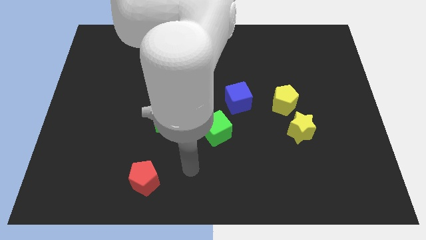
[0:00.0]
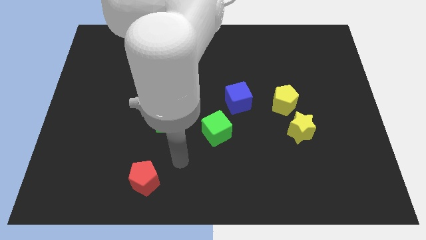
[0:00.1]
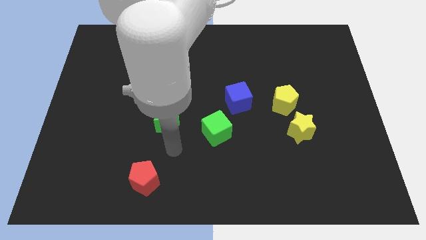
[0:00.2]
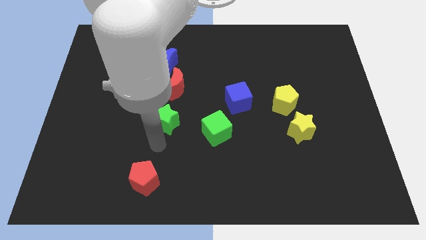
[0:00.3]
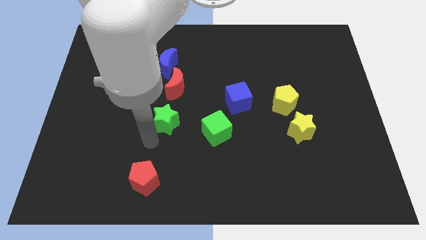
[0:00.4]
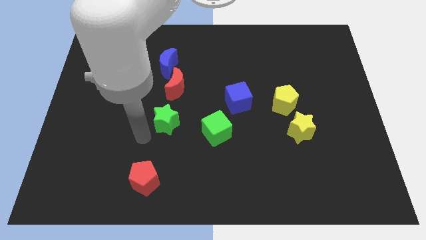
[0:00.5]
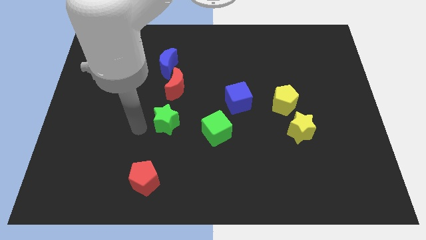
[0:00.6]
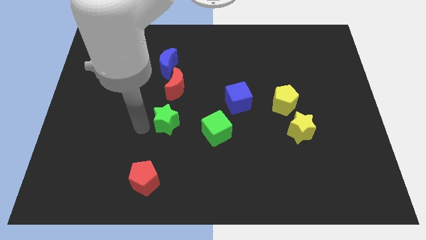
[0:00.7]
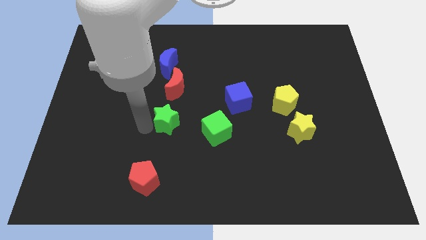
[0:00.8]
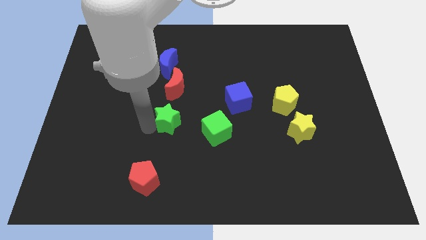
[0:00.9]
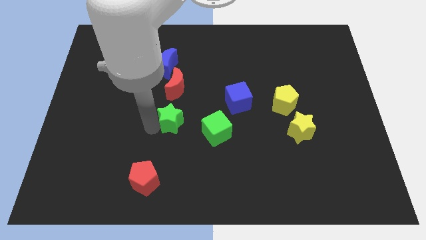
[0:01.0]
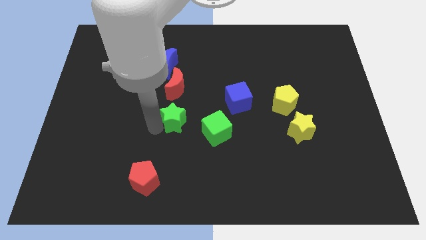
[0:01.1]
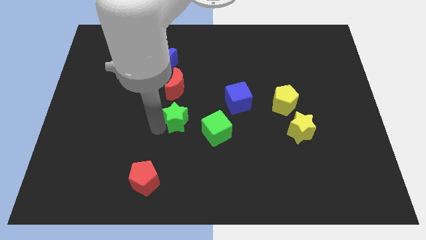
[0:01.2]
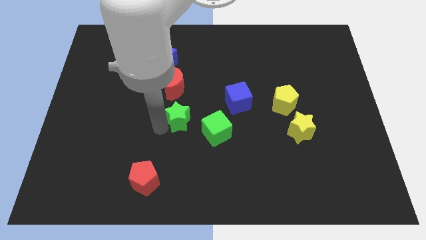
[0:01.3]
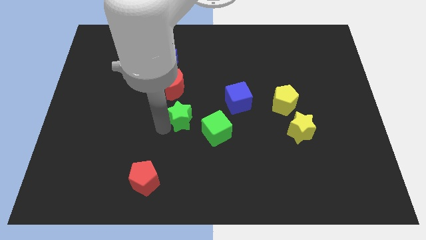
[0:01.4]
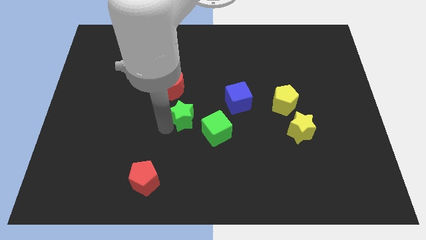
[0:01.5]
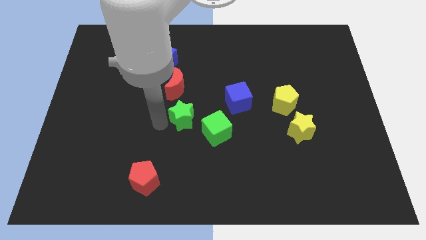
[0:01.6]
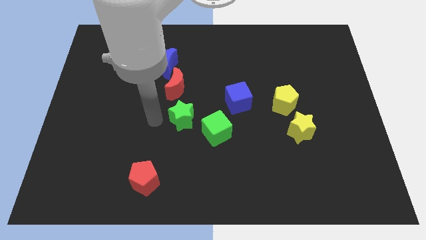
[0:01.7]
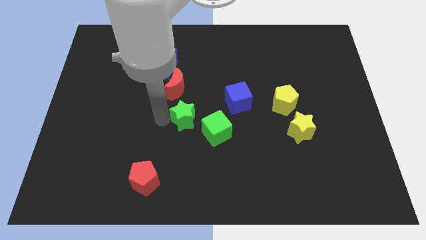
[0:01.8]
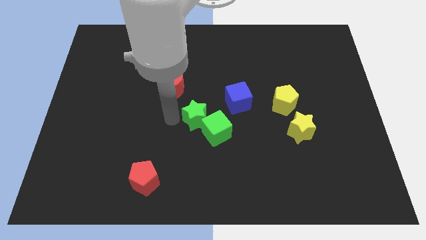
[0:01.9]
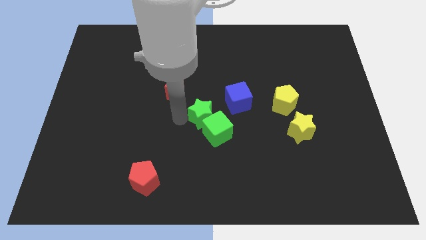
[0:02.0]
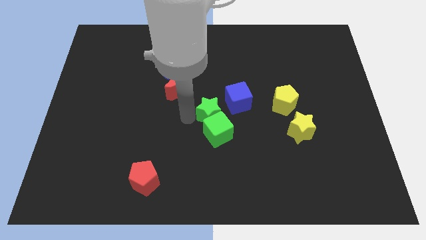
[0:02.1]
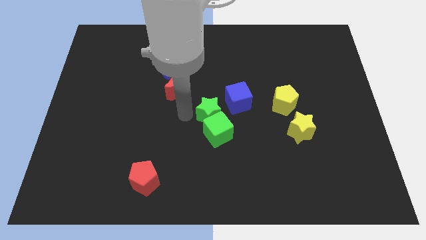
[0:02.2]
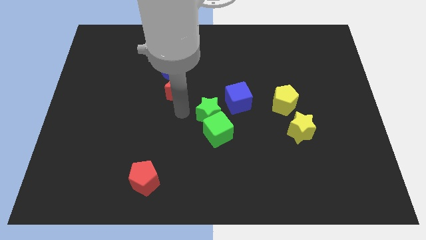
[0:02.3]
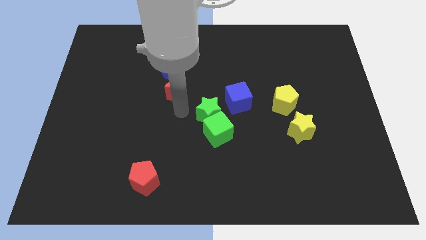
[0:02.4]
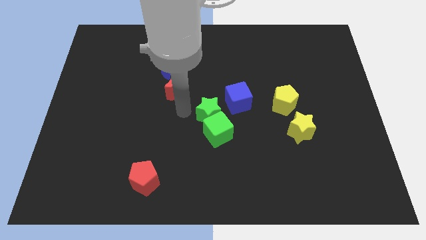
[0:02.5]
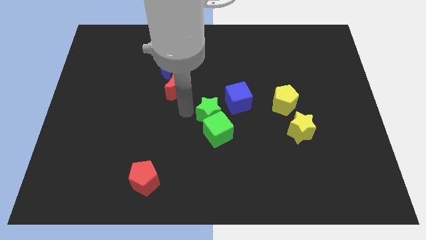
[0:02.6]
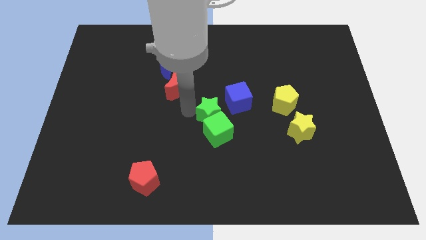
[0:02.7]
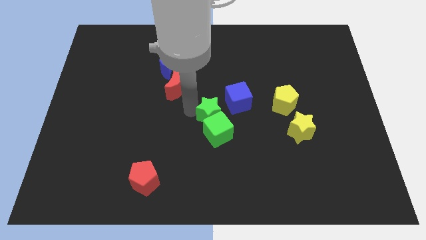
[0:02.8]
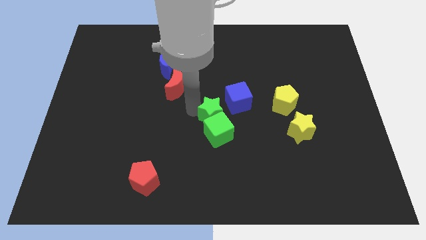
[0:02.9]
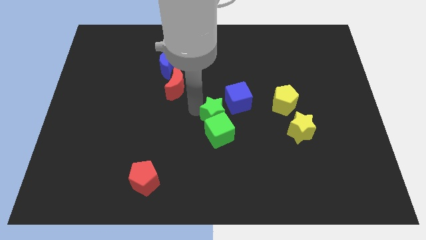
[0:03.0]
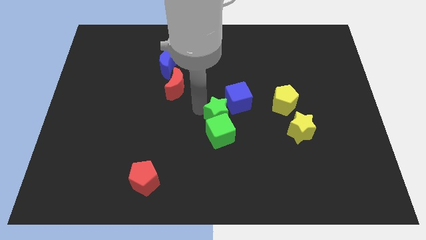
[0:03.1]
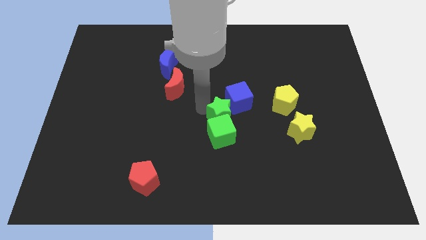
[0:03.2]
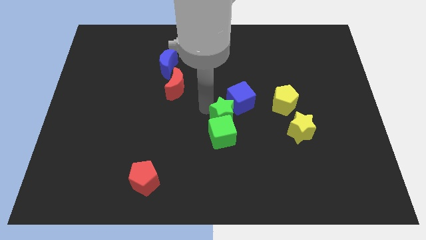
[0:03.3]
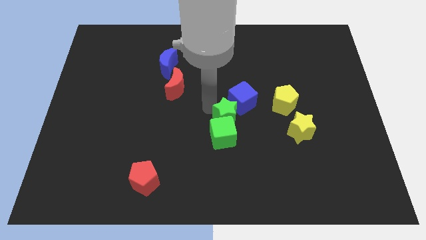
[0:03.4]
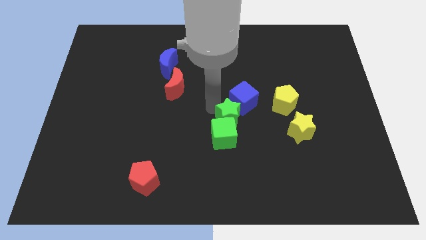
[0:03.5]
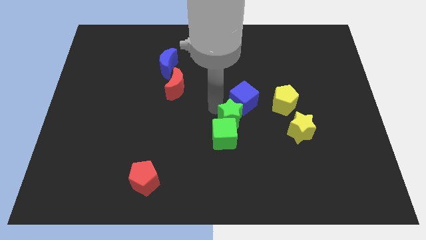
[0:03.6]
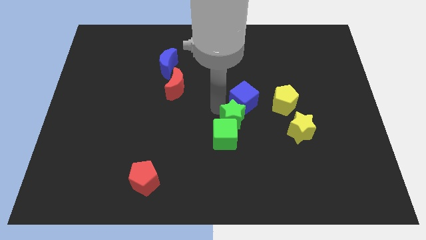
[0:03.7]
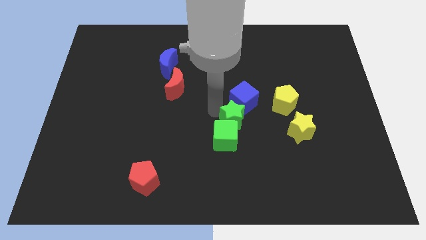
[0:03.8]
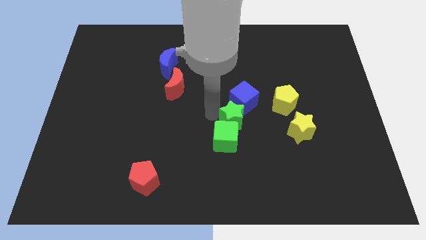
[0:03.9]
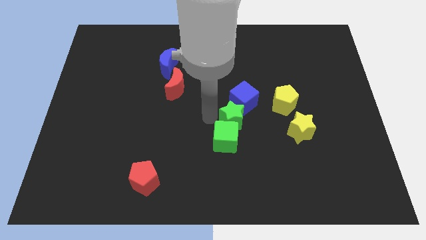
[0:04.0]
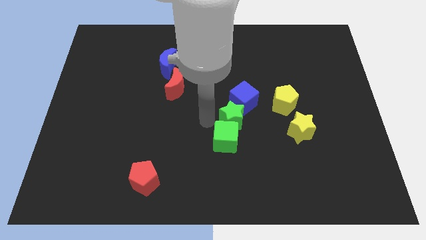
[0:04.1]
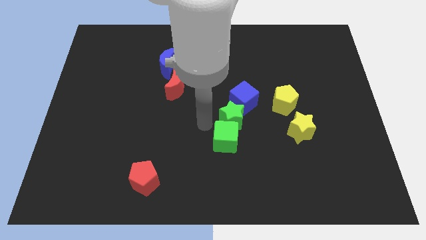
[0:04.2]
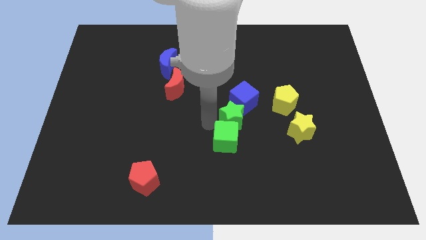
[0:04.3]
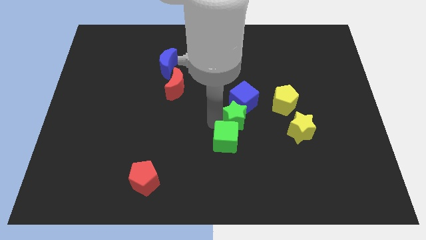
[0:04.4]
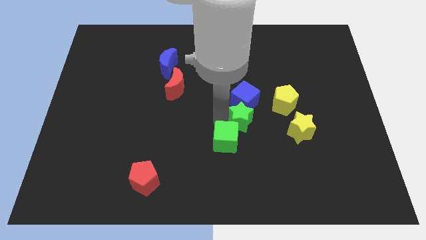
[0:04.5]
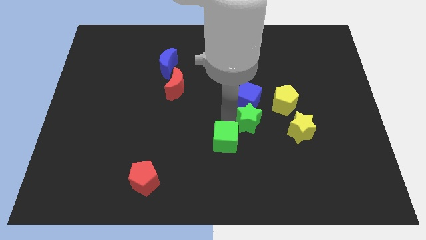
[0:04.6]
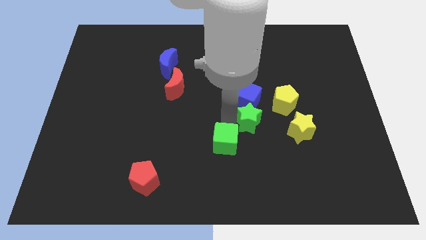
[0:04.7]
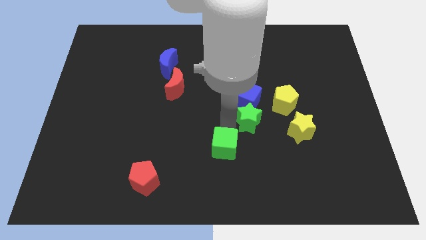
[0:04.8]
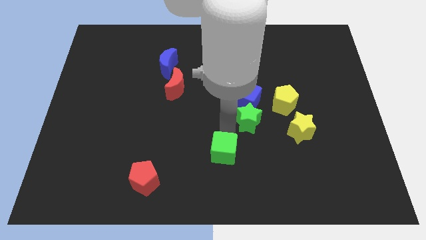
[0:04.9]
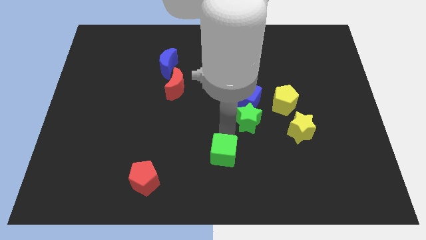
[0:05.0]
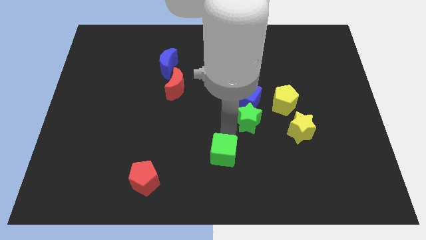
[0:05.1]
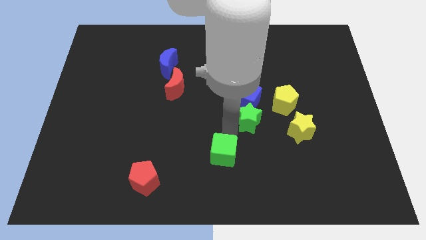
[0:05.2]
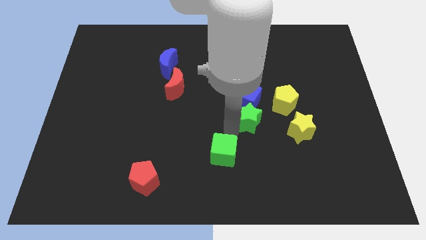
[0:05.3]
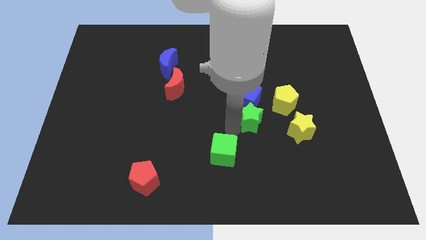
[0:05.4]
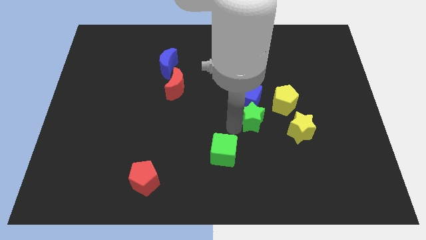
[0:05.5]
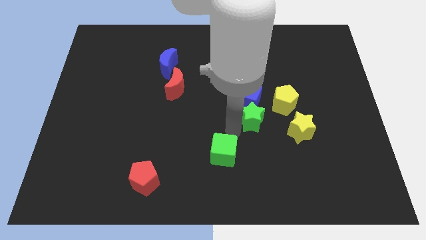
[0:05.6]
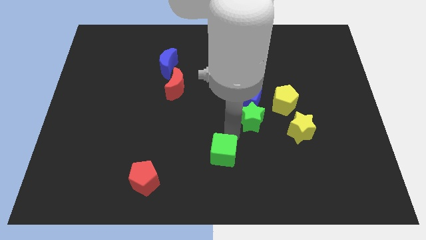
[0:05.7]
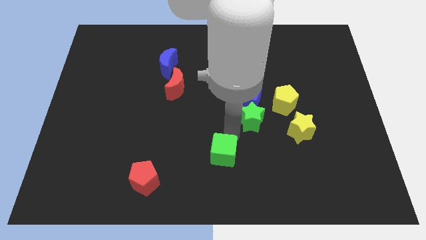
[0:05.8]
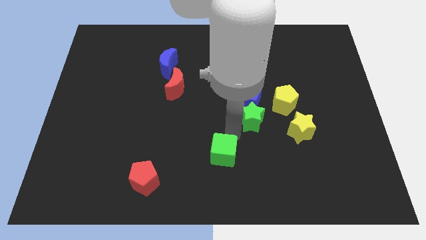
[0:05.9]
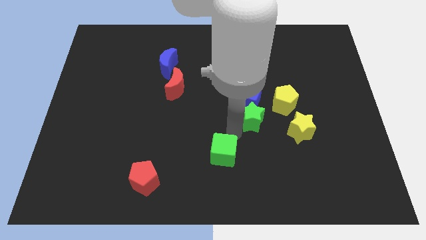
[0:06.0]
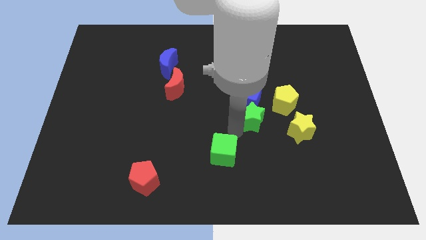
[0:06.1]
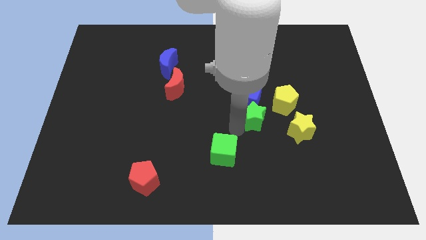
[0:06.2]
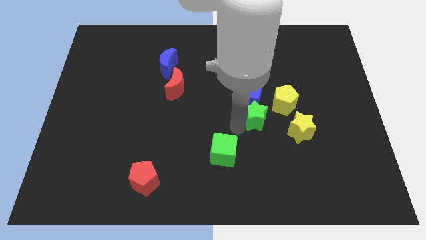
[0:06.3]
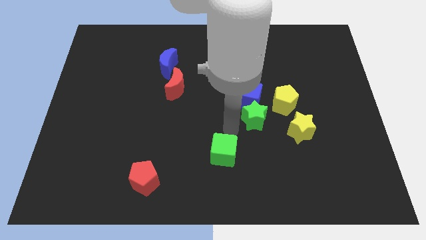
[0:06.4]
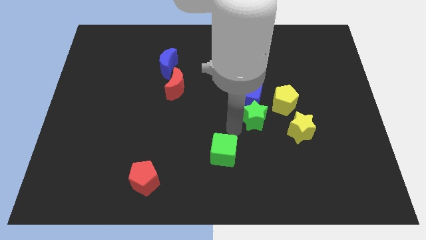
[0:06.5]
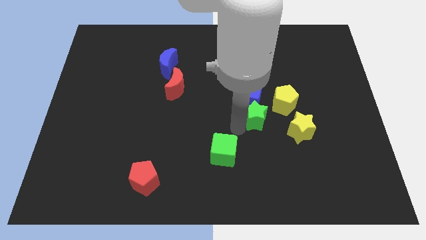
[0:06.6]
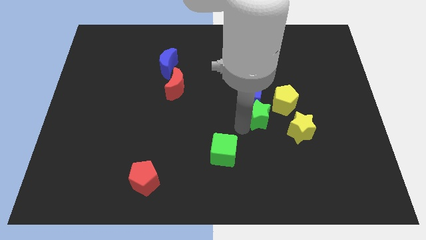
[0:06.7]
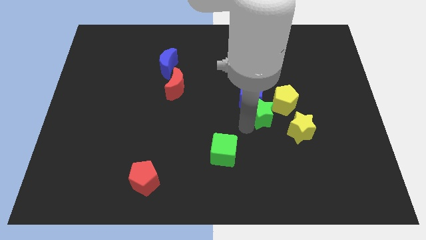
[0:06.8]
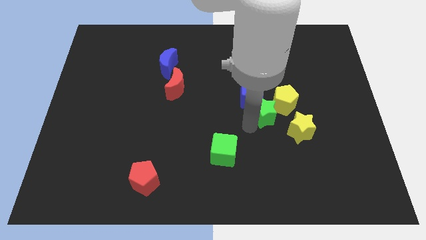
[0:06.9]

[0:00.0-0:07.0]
slide the green star close to the yellow pentagon

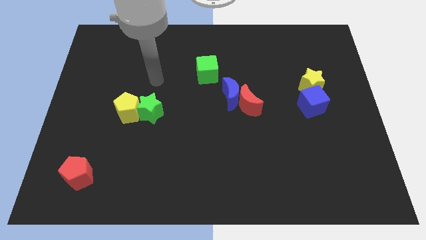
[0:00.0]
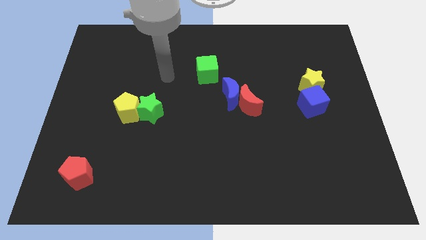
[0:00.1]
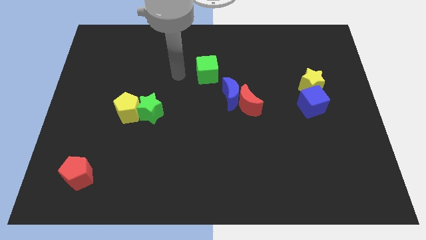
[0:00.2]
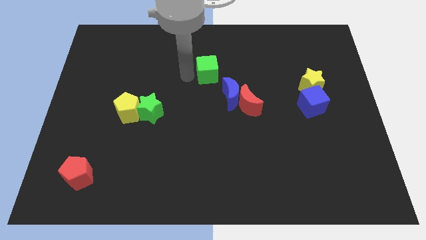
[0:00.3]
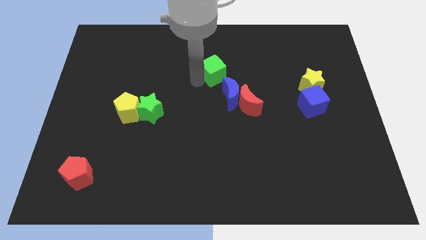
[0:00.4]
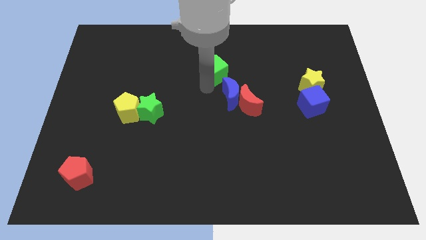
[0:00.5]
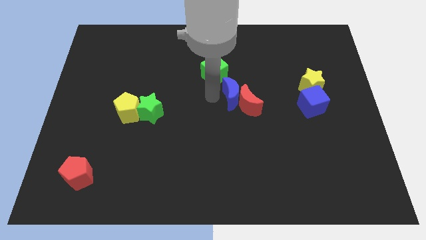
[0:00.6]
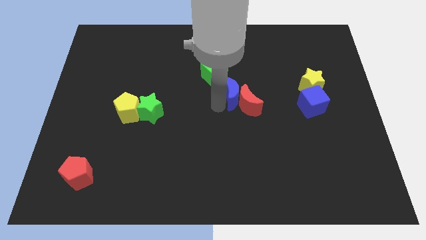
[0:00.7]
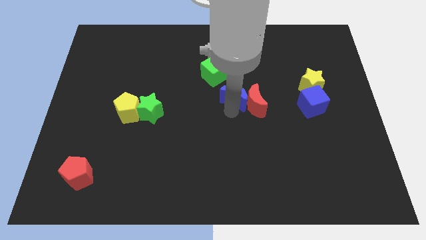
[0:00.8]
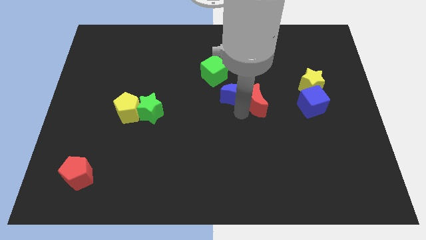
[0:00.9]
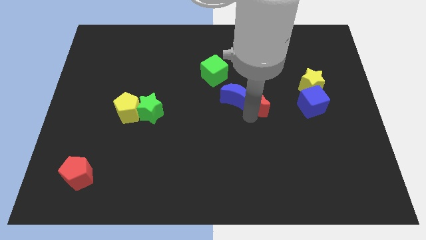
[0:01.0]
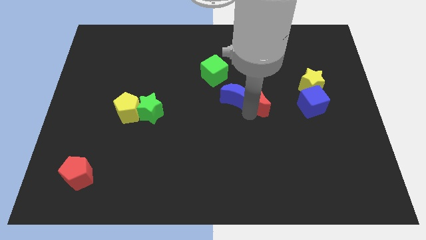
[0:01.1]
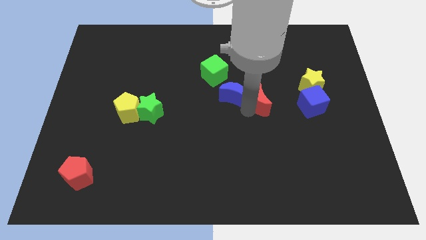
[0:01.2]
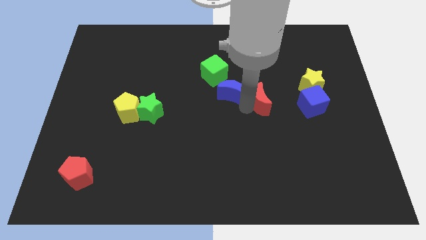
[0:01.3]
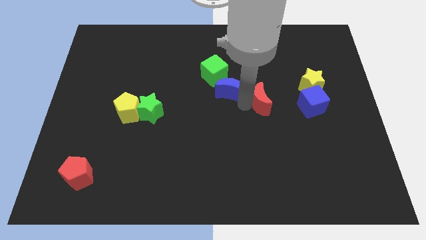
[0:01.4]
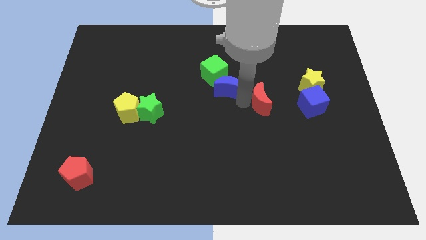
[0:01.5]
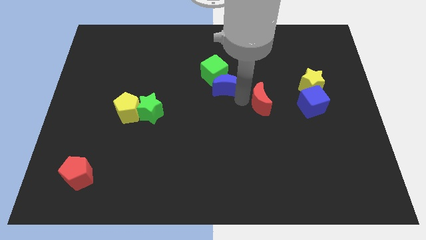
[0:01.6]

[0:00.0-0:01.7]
put the blue moon to the green cube
